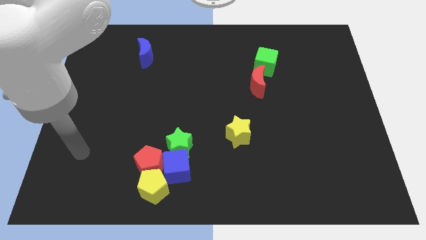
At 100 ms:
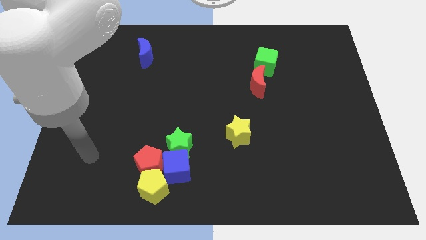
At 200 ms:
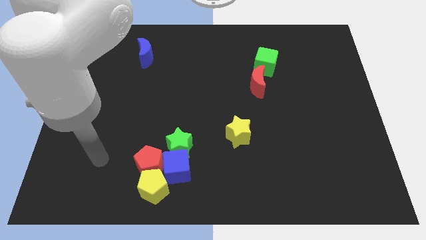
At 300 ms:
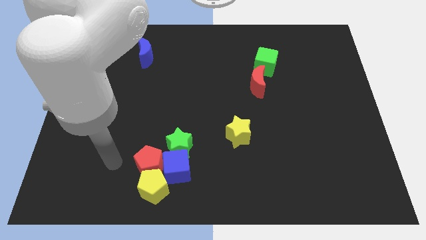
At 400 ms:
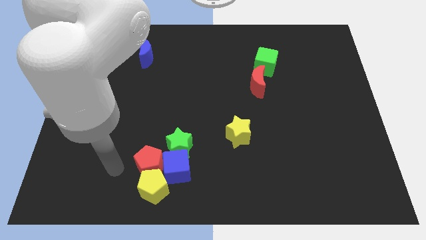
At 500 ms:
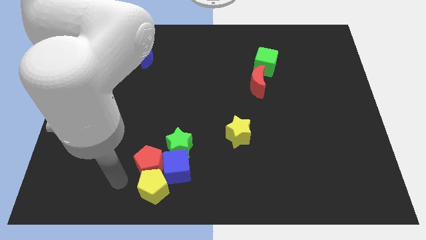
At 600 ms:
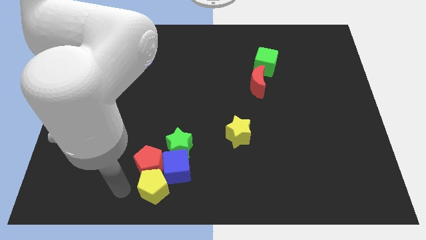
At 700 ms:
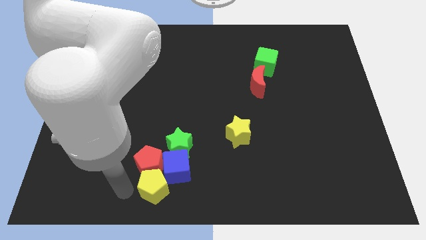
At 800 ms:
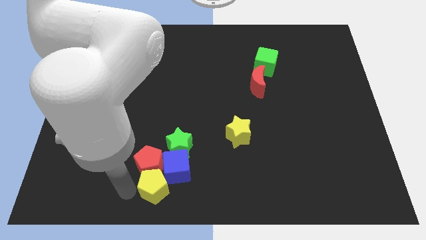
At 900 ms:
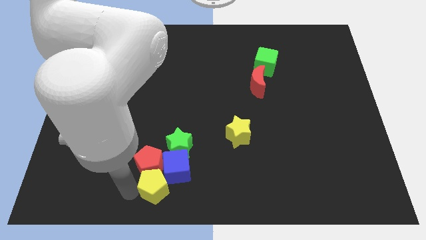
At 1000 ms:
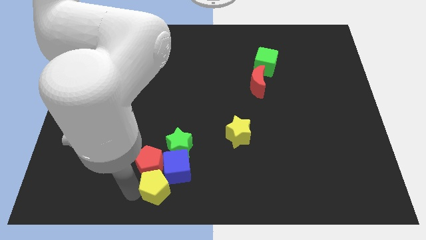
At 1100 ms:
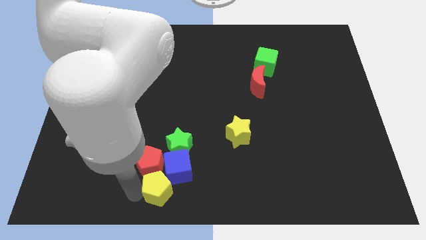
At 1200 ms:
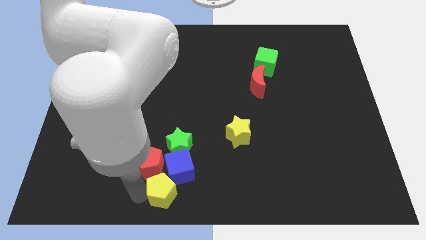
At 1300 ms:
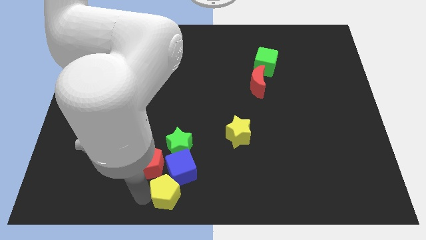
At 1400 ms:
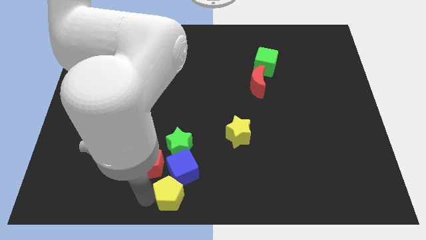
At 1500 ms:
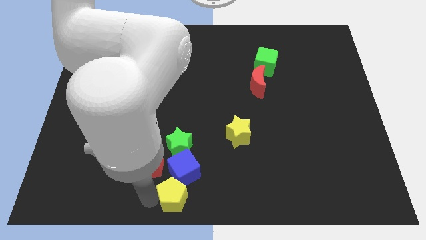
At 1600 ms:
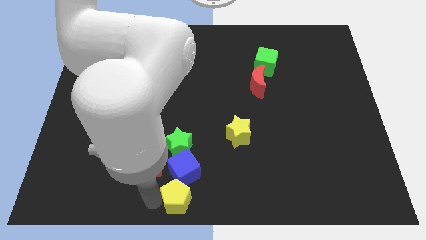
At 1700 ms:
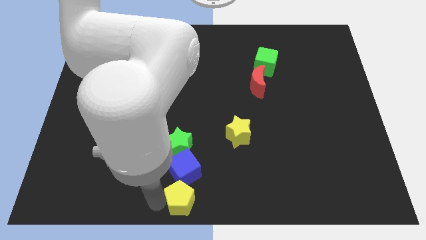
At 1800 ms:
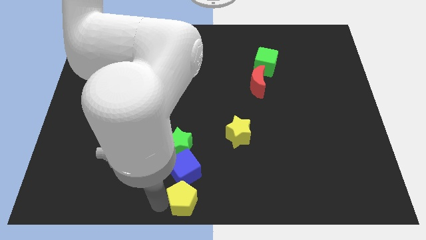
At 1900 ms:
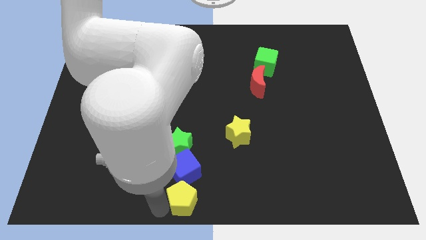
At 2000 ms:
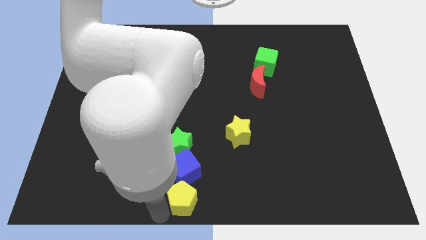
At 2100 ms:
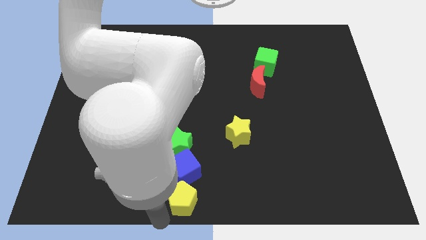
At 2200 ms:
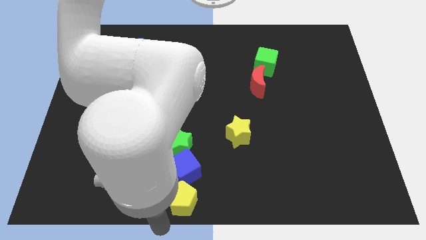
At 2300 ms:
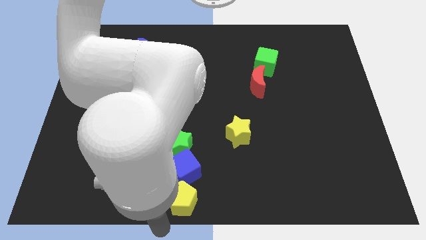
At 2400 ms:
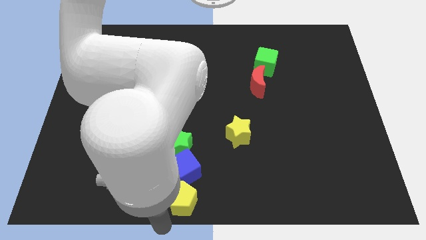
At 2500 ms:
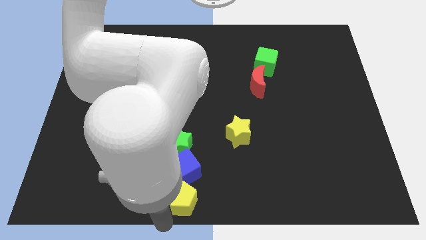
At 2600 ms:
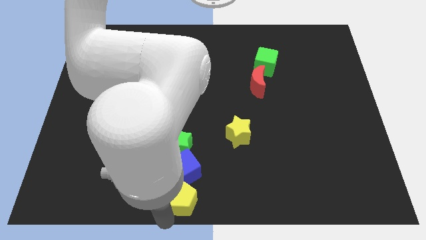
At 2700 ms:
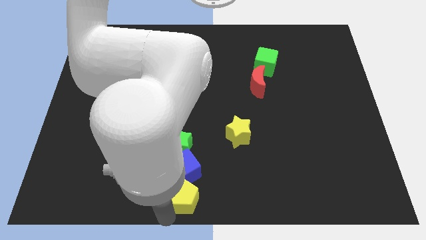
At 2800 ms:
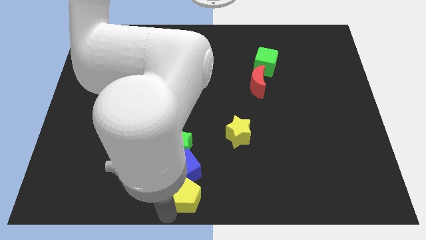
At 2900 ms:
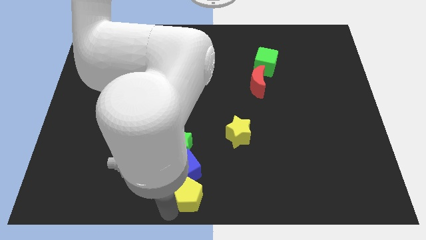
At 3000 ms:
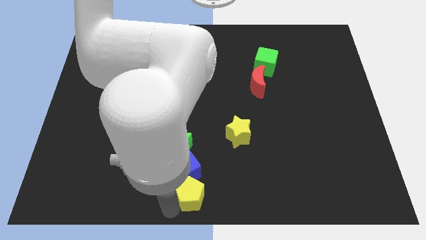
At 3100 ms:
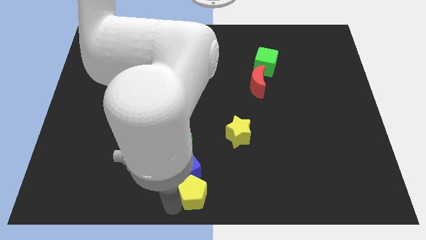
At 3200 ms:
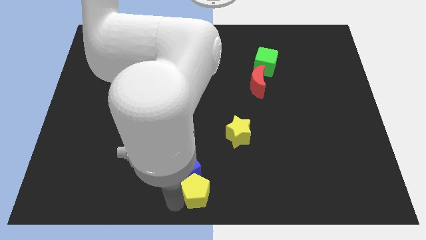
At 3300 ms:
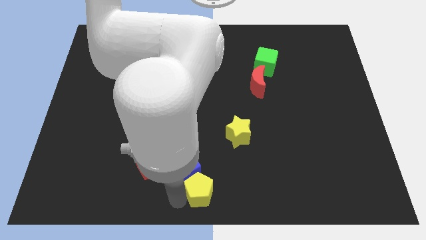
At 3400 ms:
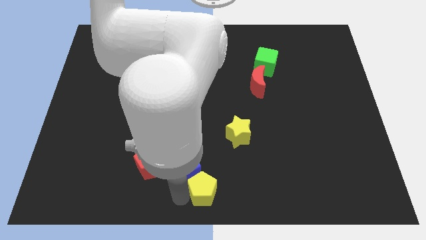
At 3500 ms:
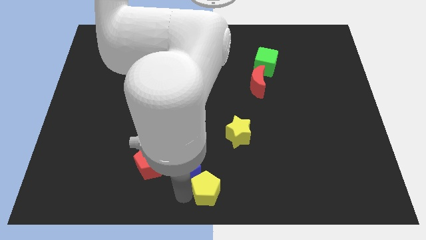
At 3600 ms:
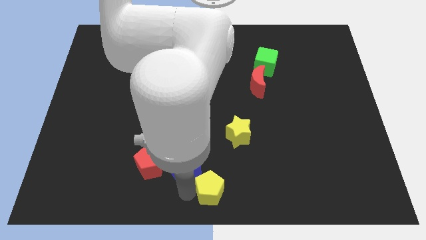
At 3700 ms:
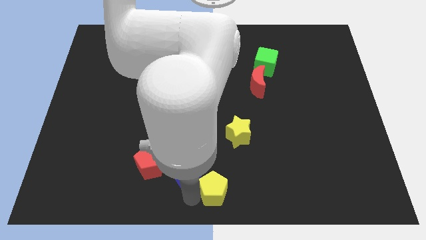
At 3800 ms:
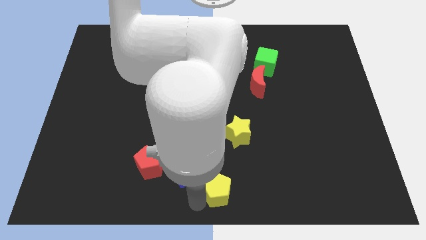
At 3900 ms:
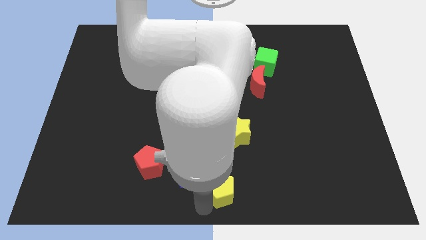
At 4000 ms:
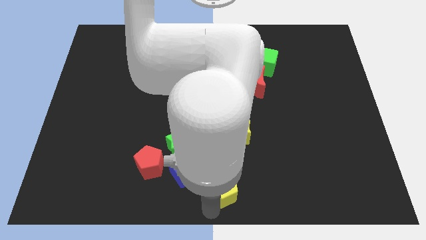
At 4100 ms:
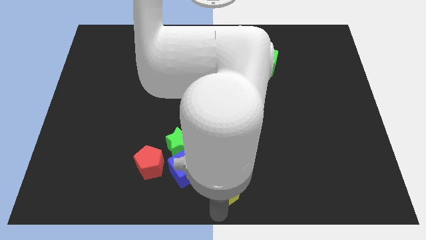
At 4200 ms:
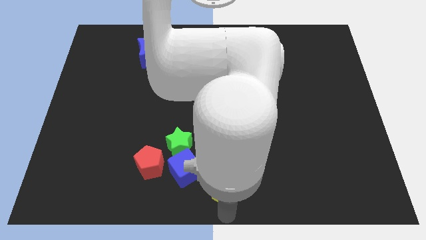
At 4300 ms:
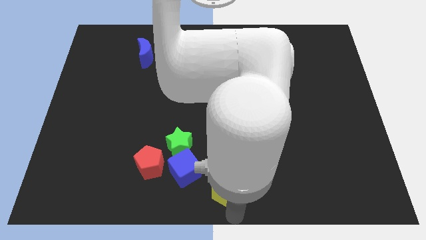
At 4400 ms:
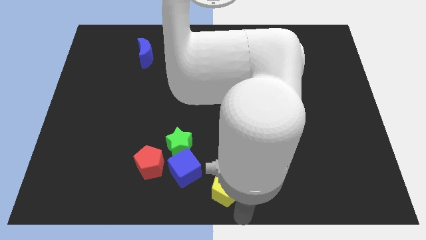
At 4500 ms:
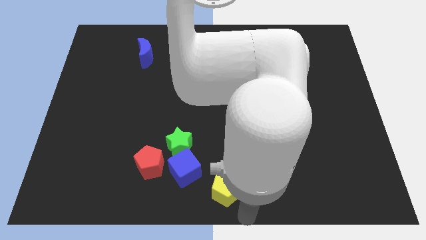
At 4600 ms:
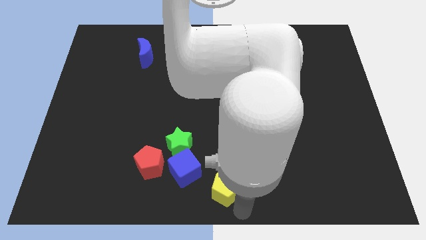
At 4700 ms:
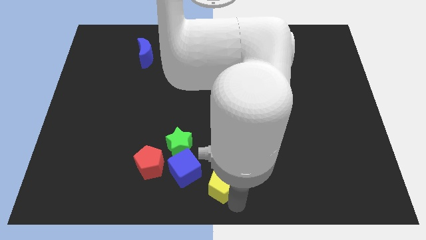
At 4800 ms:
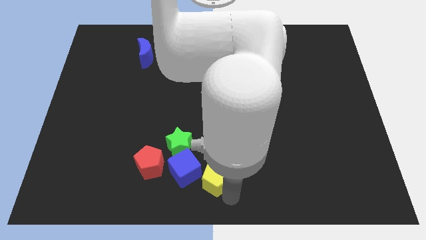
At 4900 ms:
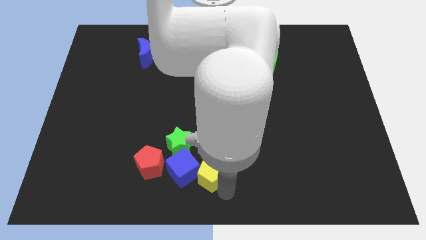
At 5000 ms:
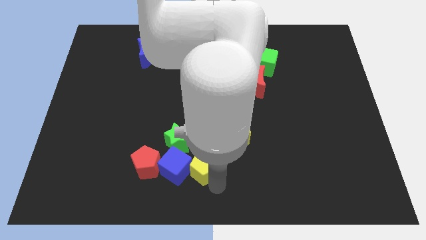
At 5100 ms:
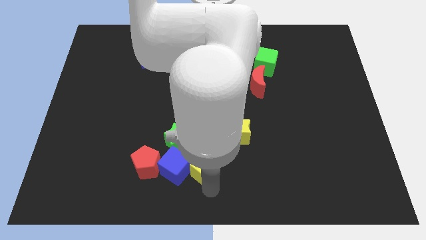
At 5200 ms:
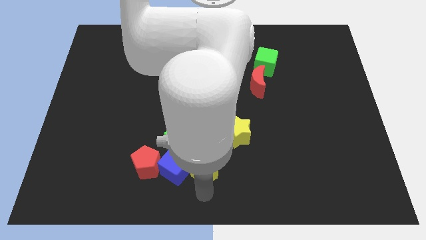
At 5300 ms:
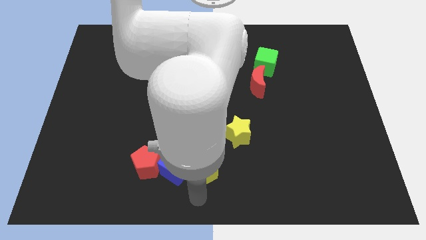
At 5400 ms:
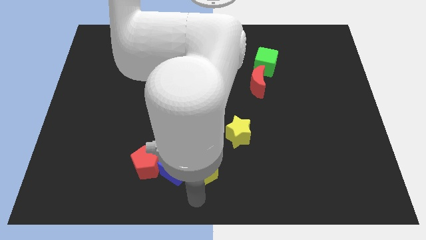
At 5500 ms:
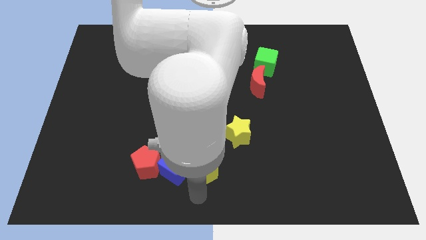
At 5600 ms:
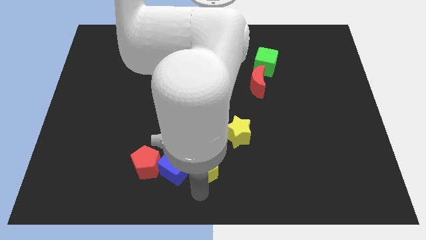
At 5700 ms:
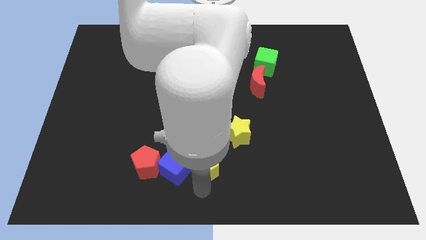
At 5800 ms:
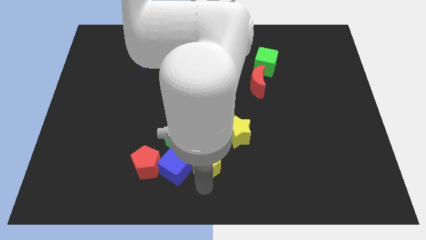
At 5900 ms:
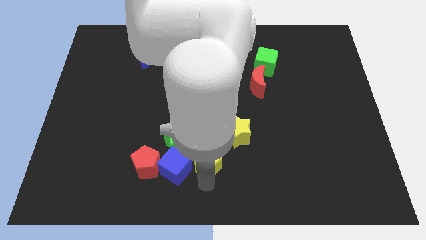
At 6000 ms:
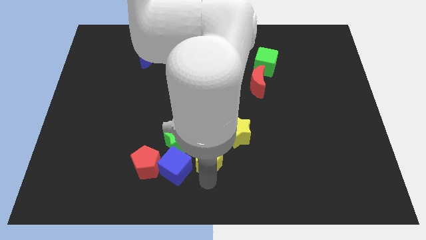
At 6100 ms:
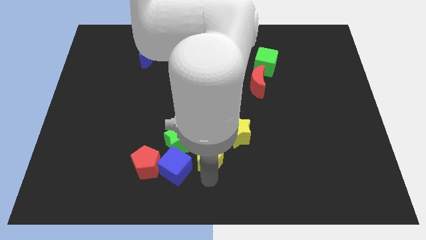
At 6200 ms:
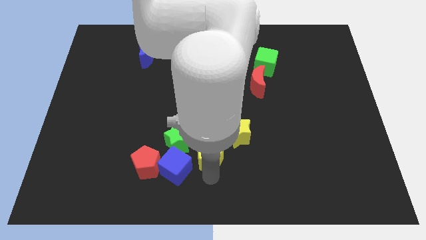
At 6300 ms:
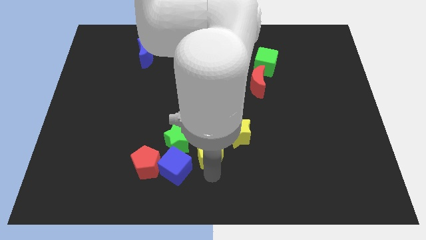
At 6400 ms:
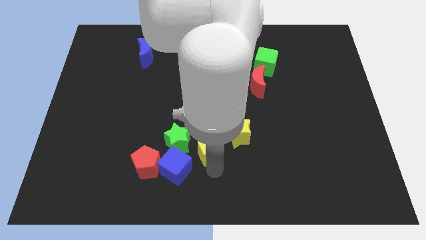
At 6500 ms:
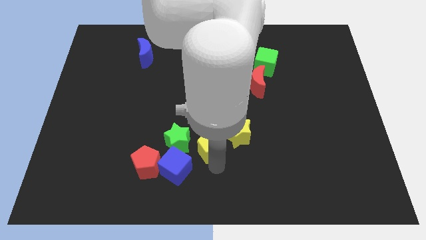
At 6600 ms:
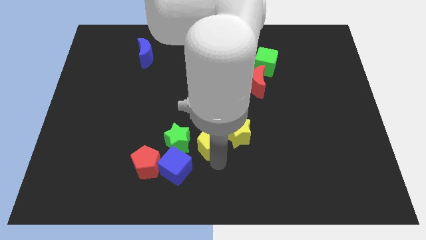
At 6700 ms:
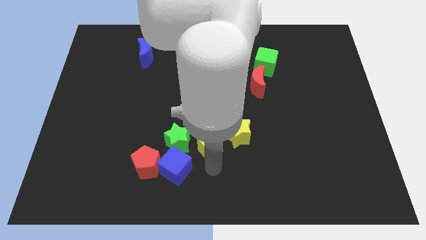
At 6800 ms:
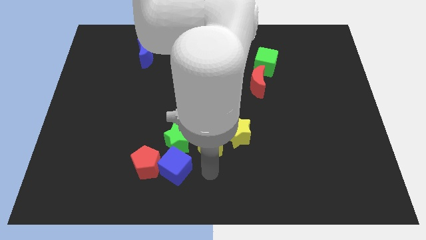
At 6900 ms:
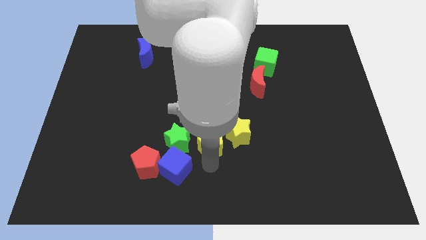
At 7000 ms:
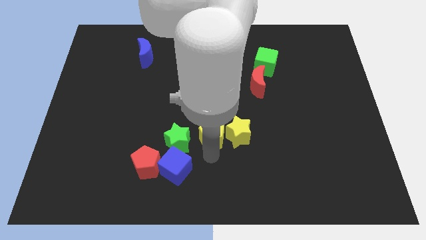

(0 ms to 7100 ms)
push the yellow pentagon diagonally up and to the left of the yellow star
